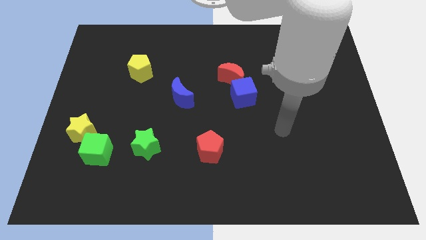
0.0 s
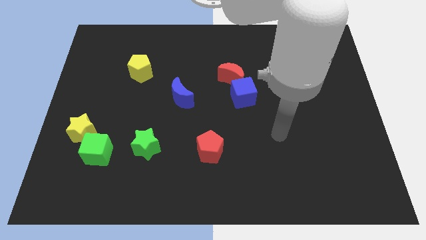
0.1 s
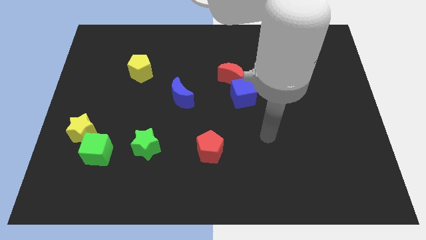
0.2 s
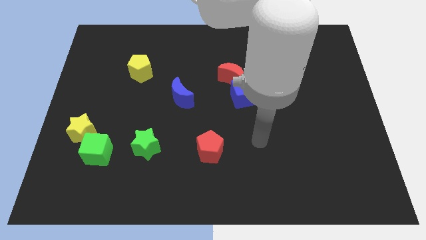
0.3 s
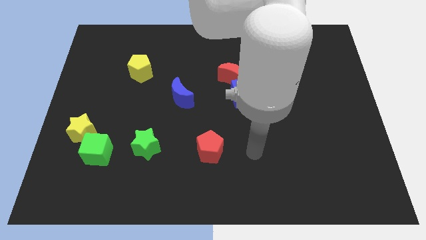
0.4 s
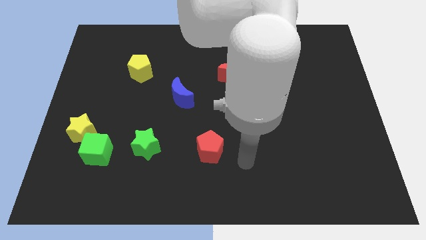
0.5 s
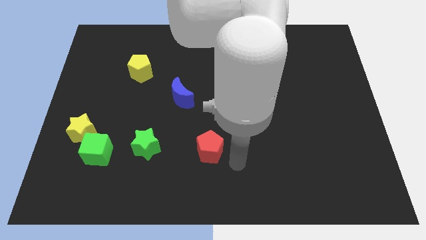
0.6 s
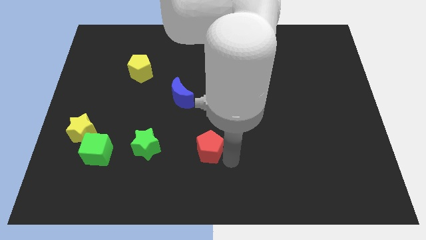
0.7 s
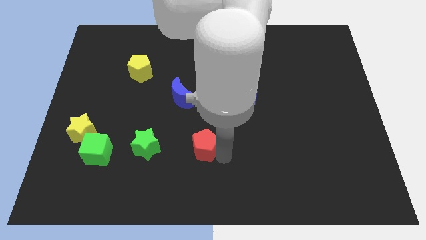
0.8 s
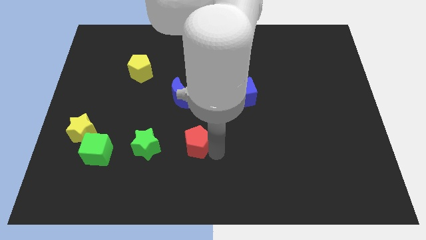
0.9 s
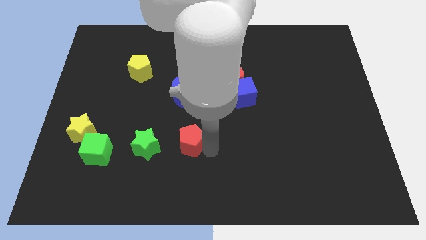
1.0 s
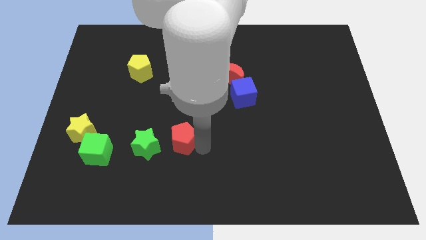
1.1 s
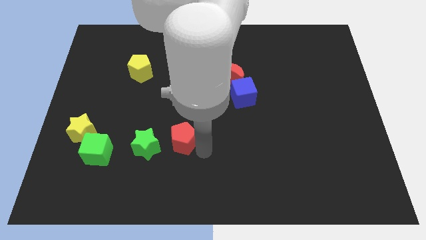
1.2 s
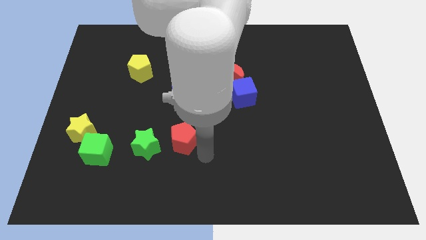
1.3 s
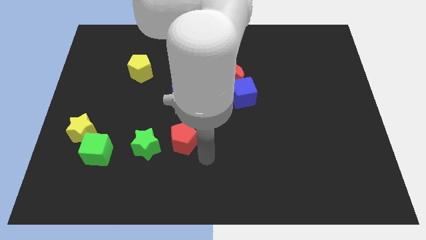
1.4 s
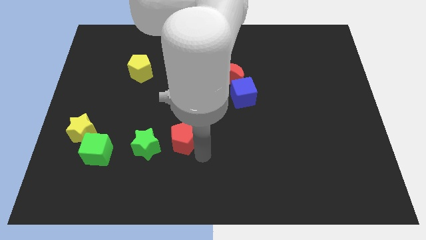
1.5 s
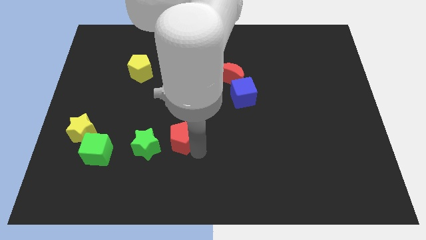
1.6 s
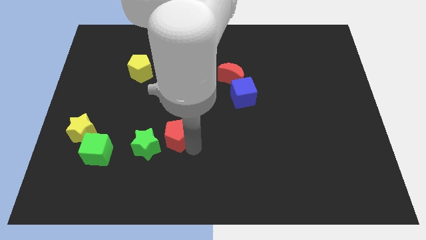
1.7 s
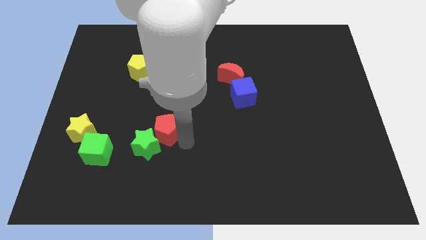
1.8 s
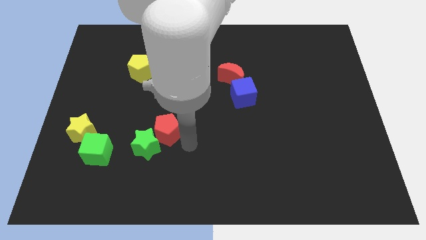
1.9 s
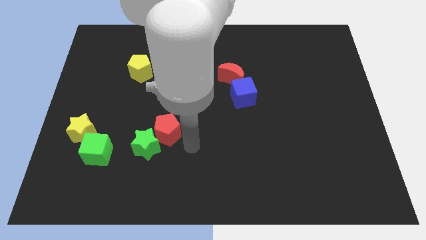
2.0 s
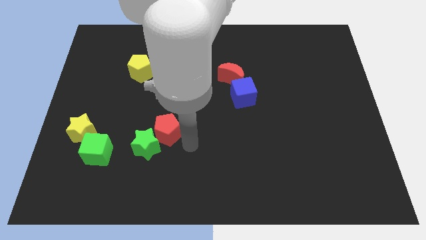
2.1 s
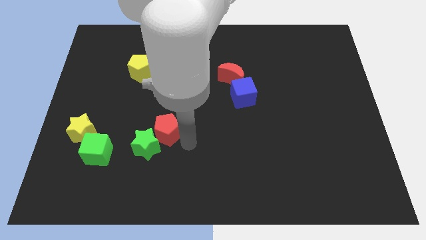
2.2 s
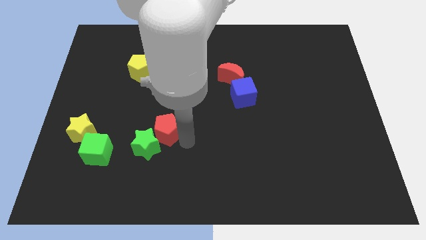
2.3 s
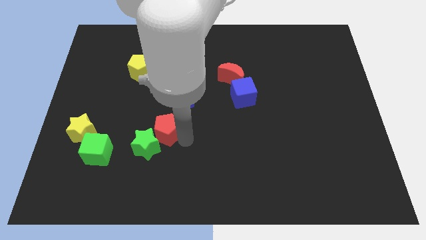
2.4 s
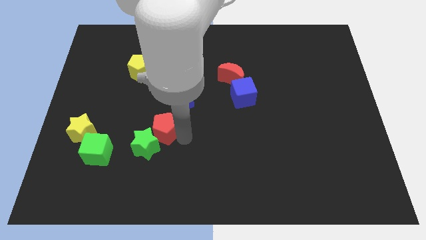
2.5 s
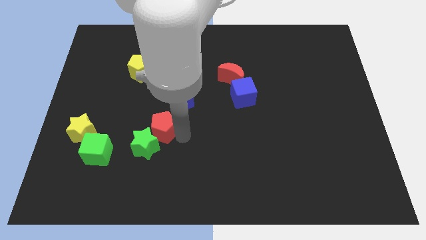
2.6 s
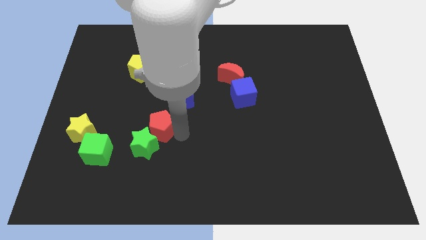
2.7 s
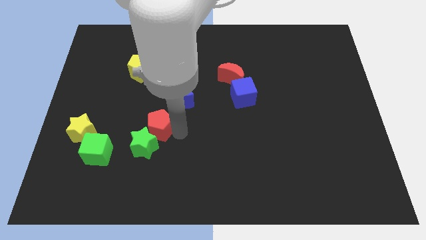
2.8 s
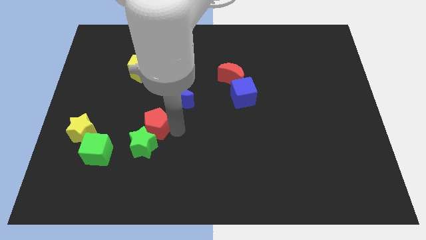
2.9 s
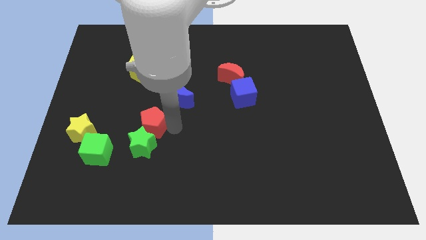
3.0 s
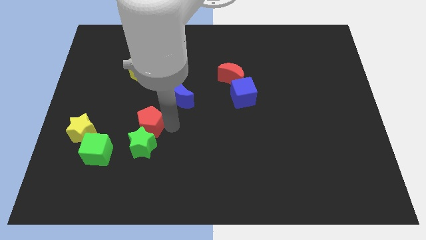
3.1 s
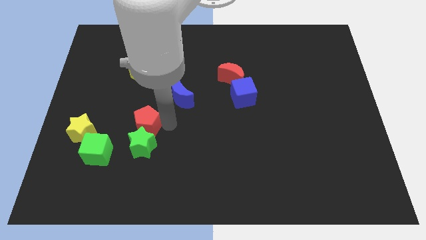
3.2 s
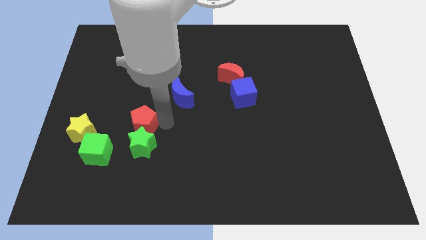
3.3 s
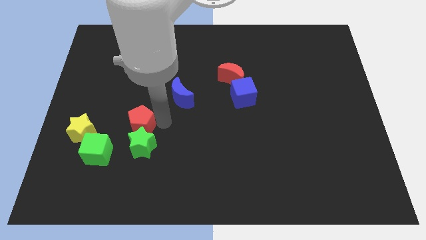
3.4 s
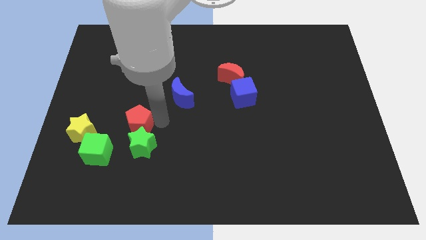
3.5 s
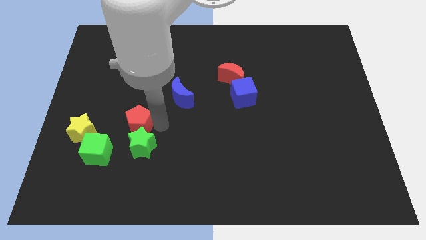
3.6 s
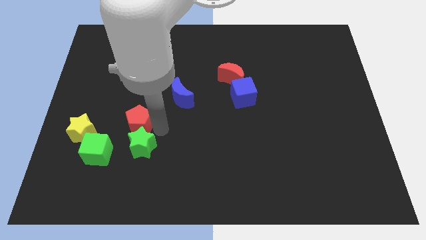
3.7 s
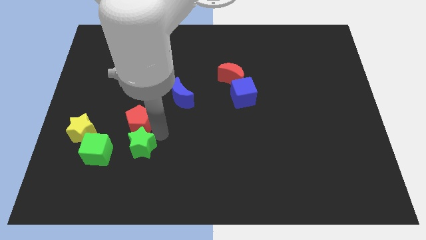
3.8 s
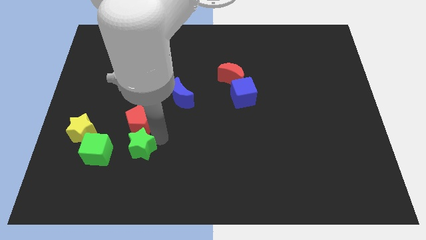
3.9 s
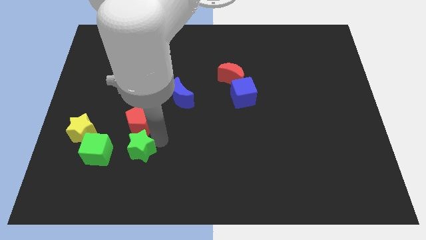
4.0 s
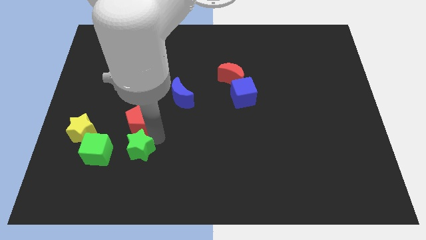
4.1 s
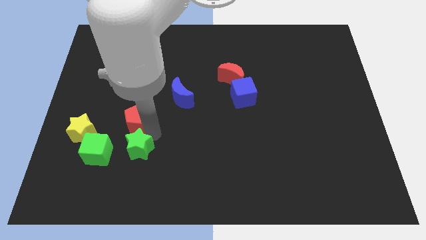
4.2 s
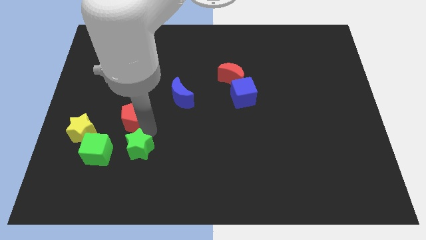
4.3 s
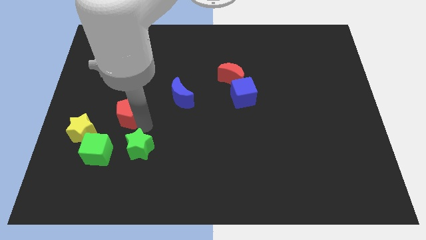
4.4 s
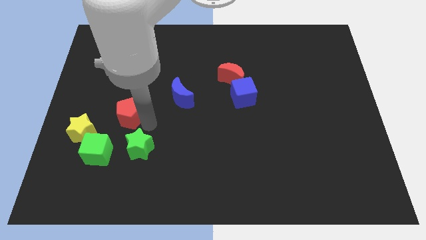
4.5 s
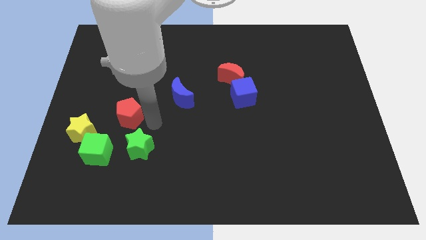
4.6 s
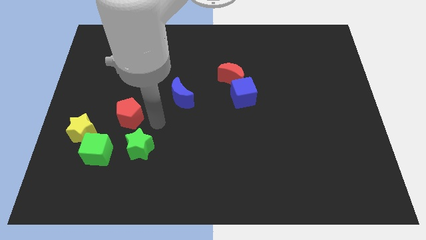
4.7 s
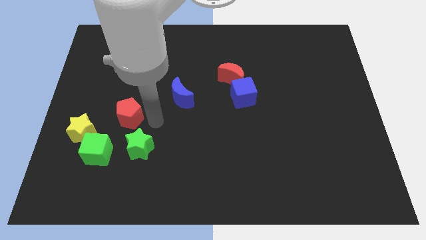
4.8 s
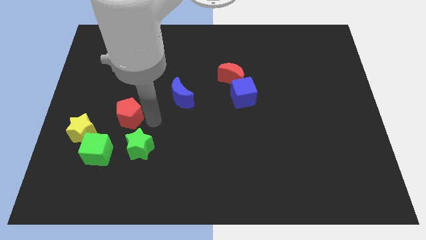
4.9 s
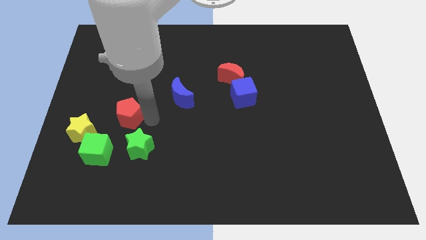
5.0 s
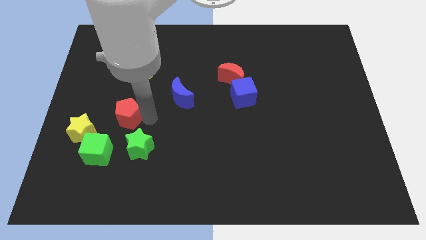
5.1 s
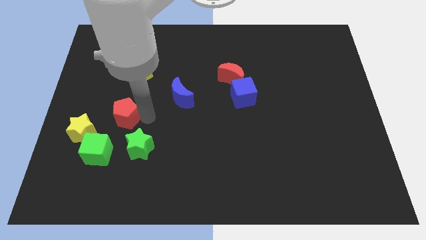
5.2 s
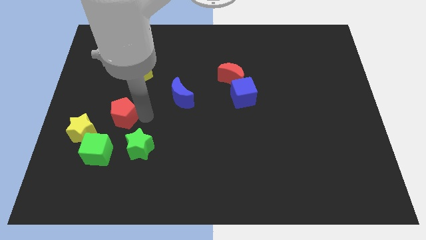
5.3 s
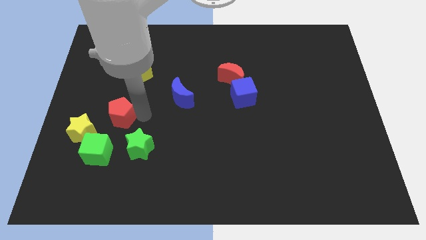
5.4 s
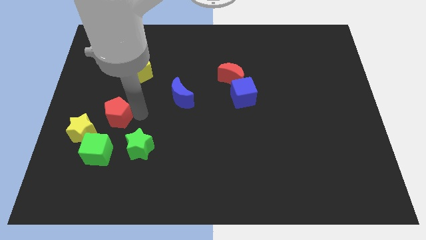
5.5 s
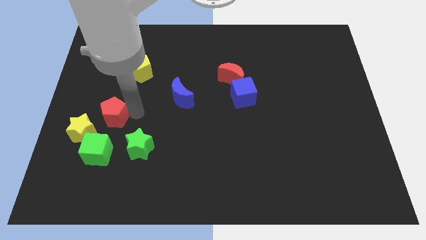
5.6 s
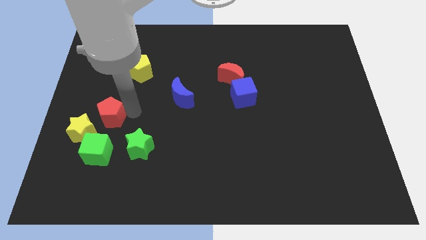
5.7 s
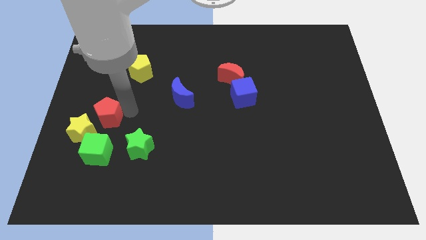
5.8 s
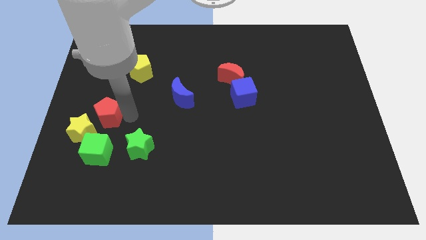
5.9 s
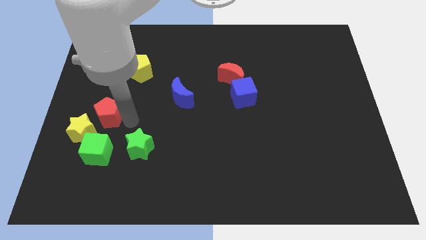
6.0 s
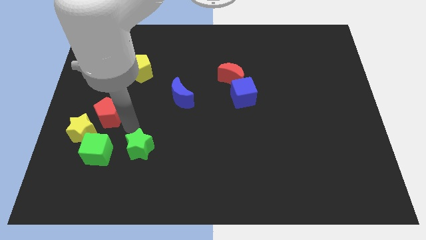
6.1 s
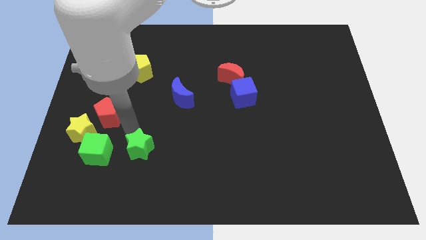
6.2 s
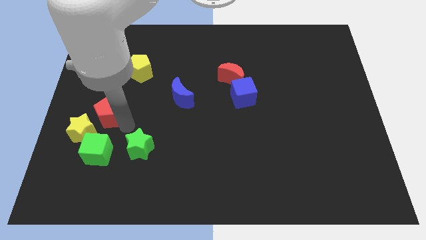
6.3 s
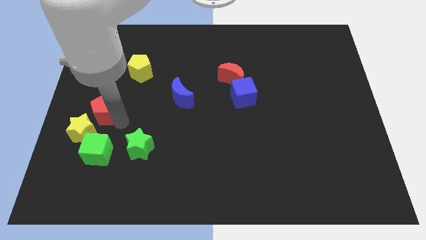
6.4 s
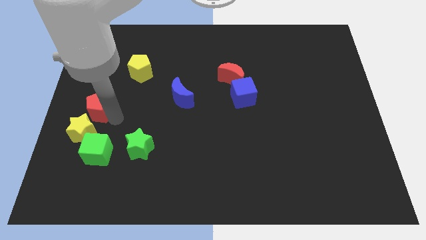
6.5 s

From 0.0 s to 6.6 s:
put the red pentagon to the left side of the board
